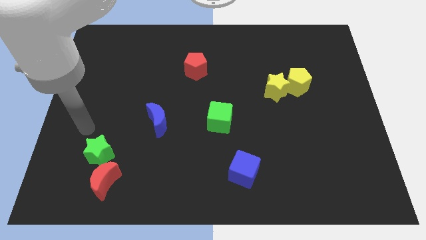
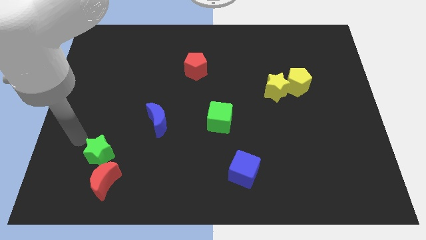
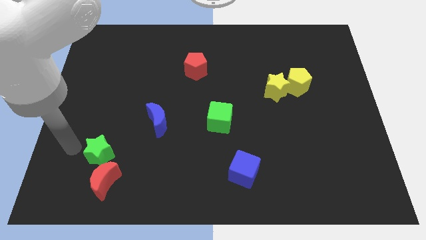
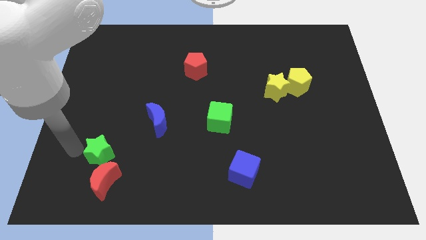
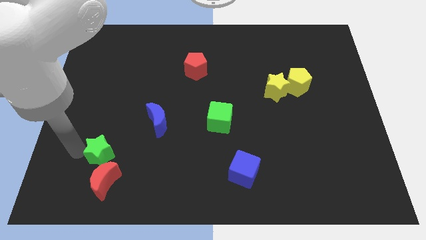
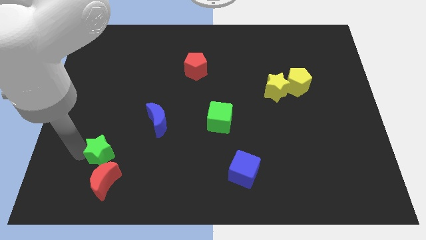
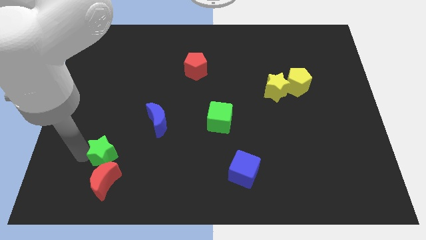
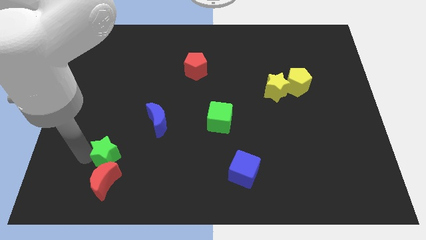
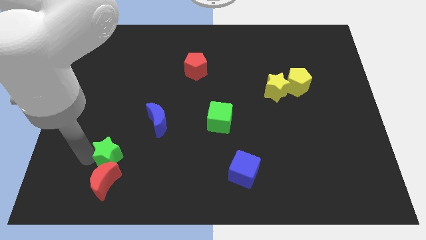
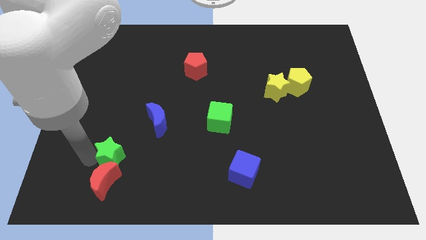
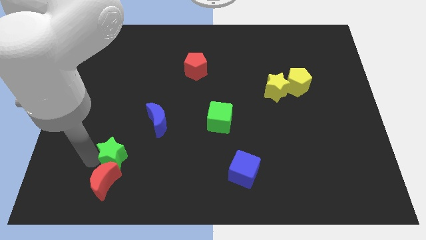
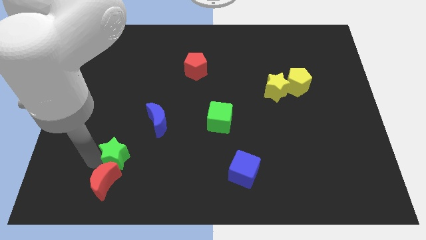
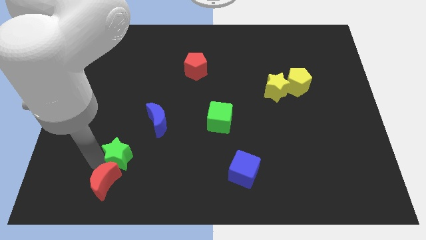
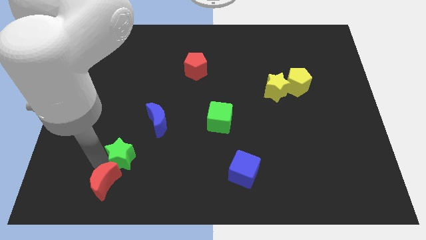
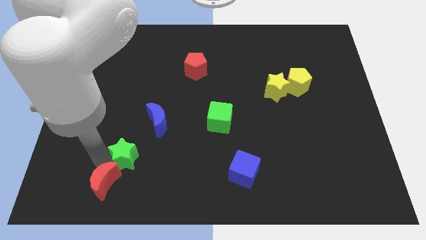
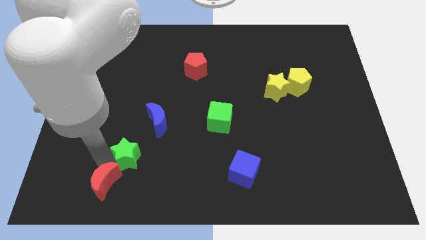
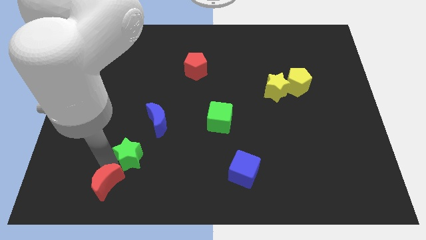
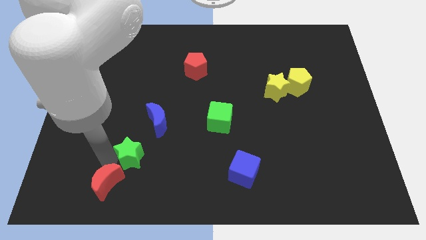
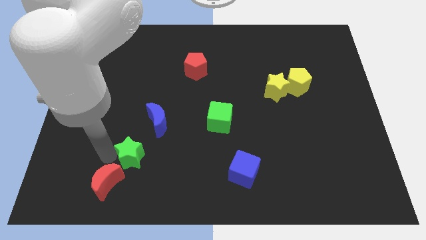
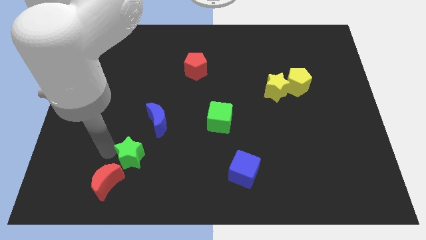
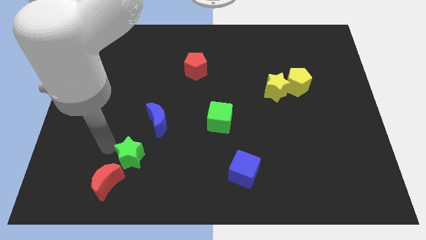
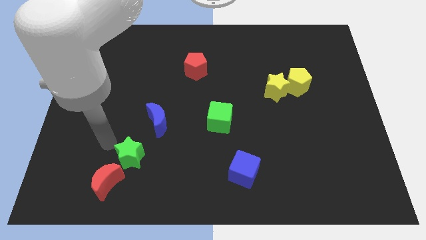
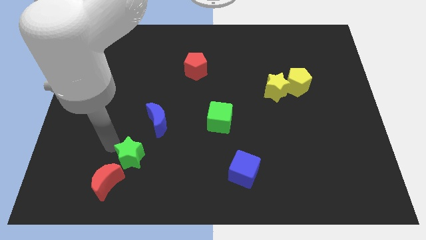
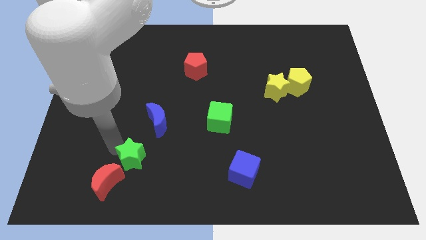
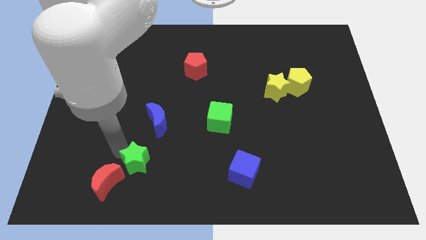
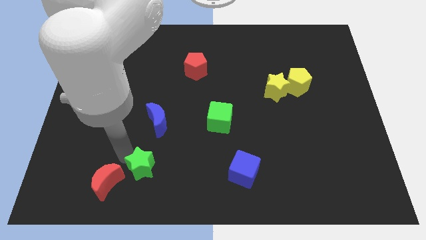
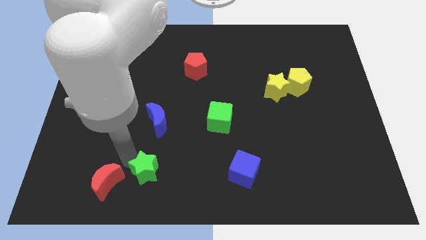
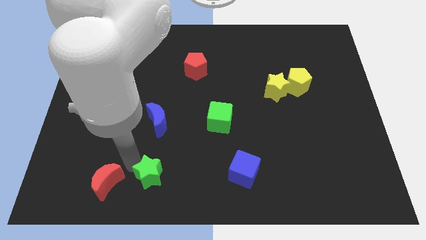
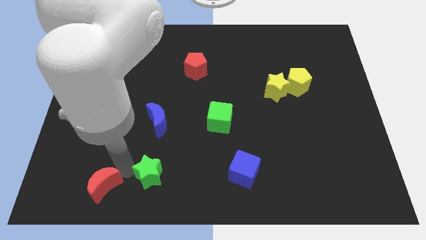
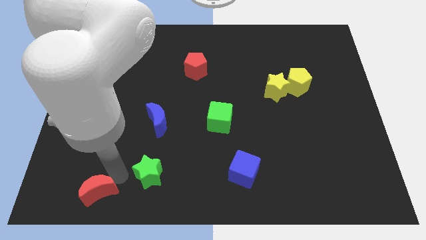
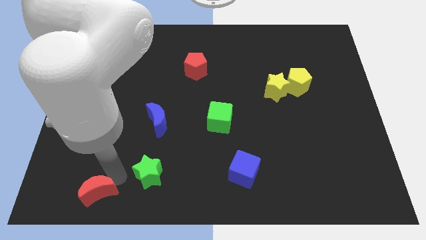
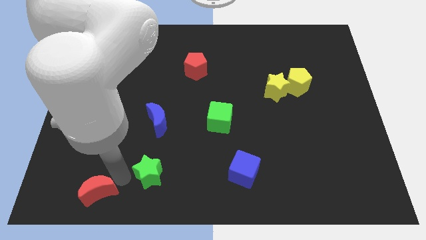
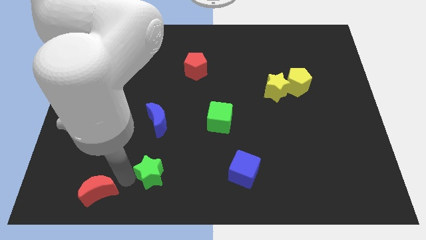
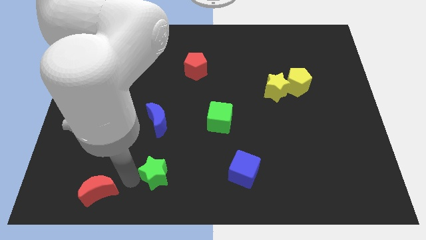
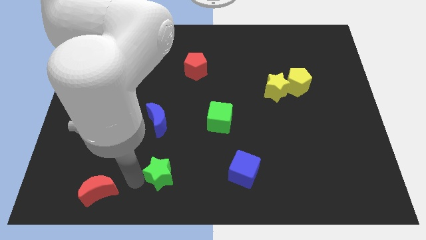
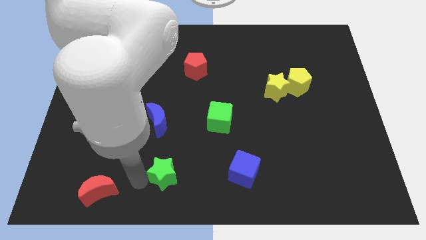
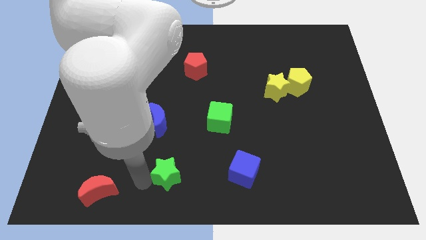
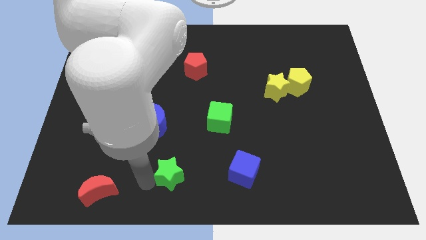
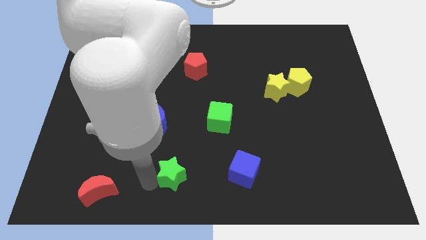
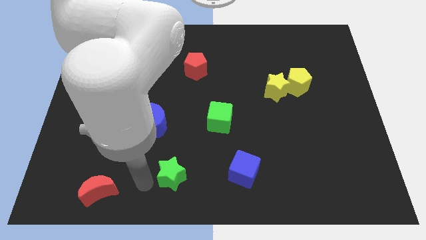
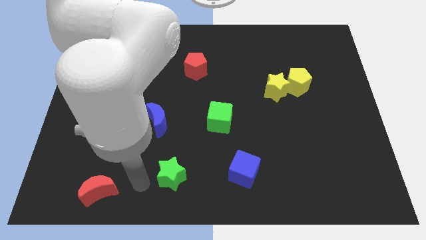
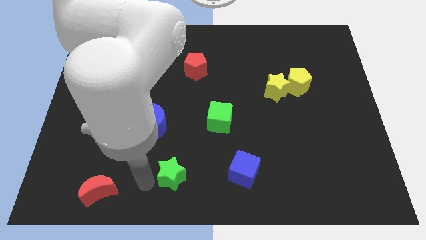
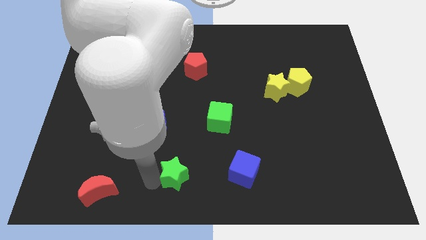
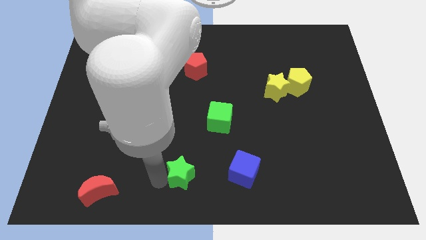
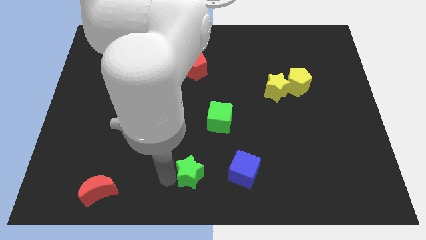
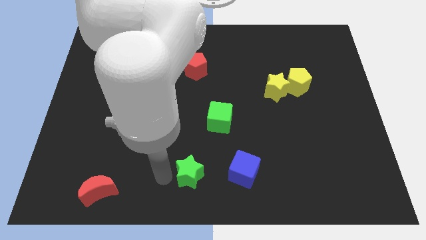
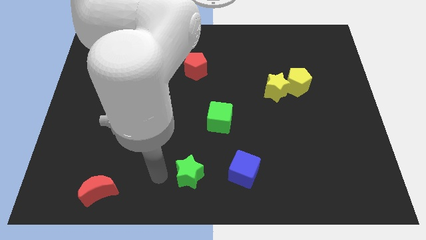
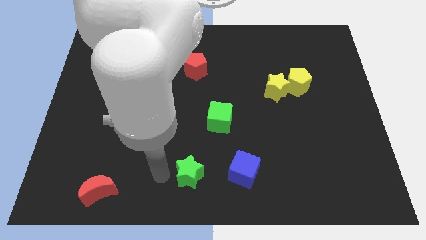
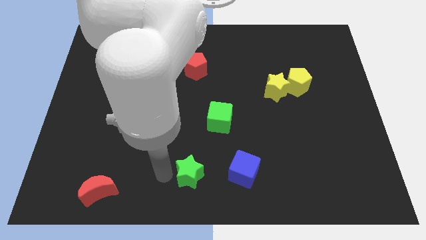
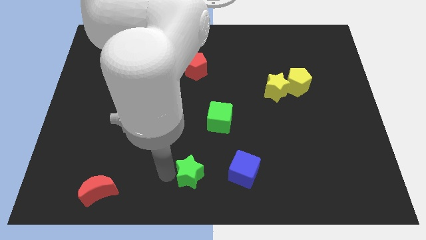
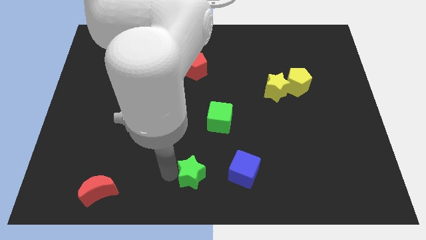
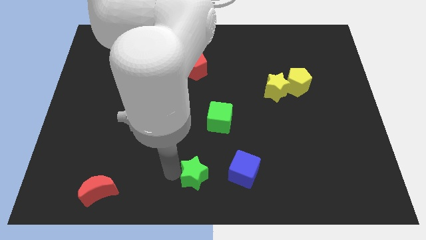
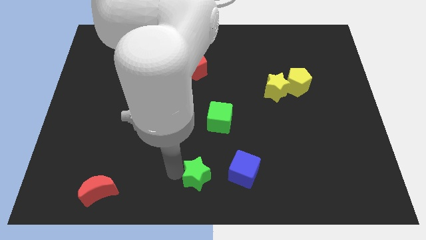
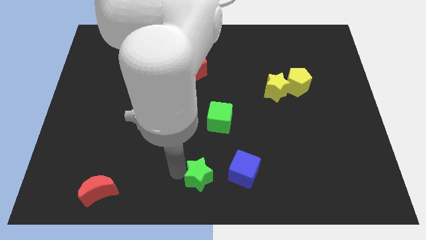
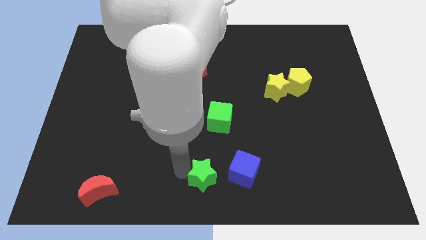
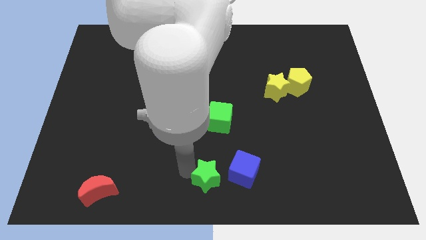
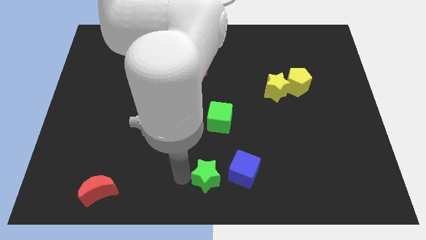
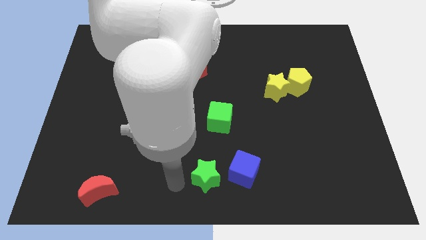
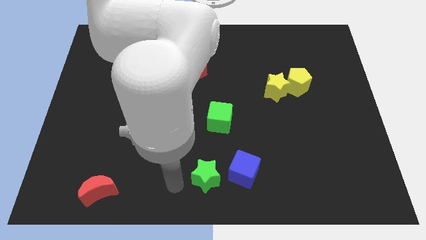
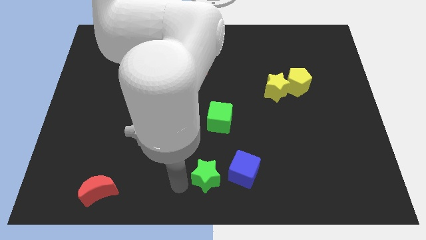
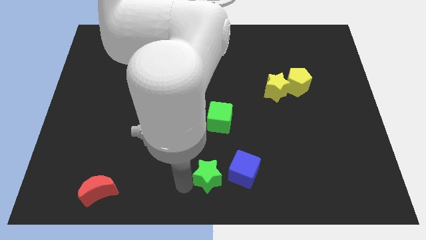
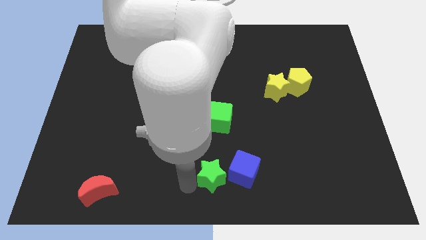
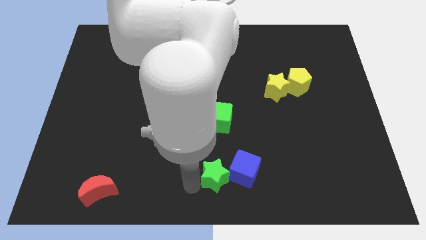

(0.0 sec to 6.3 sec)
slide the green star to the blue cube

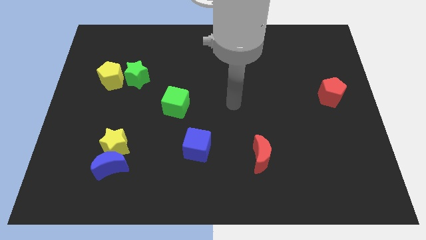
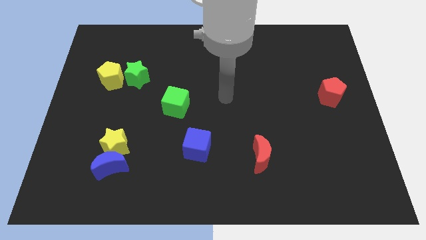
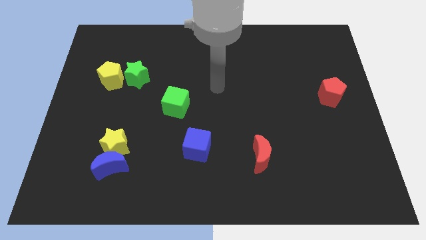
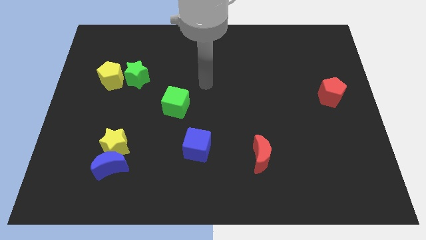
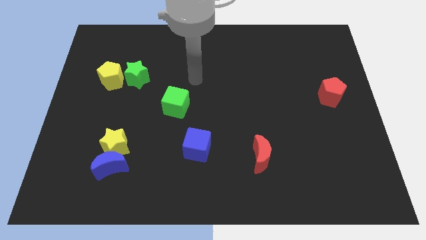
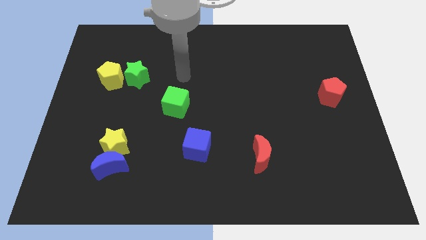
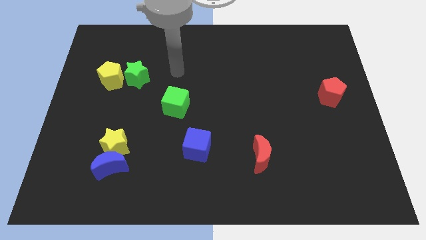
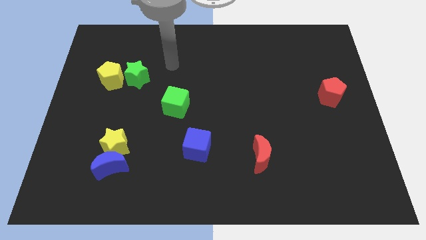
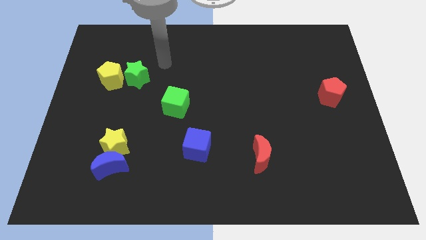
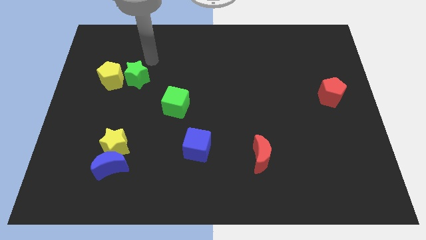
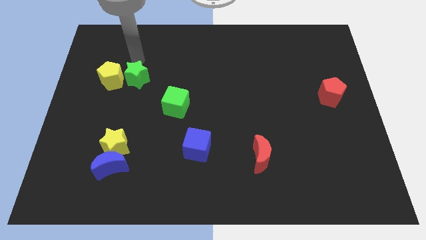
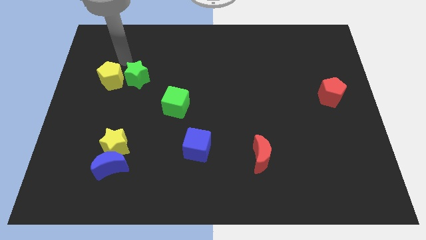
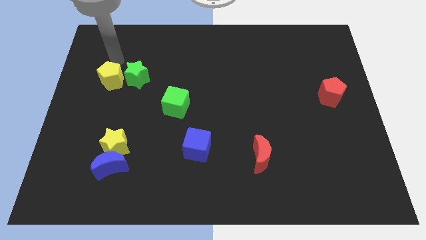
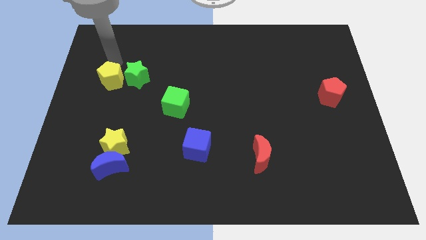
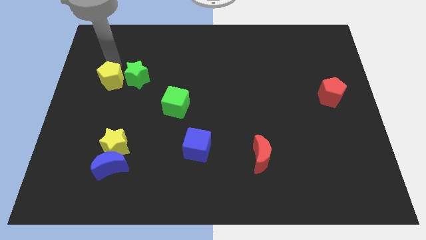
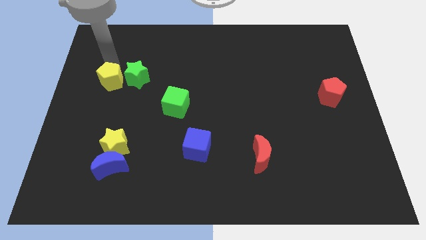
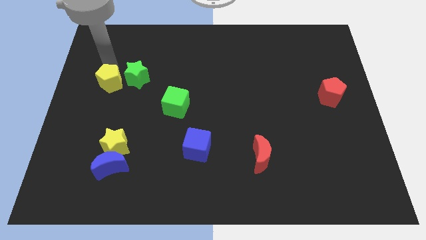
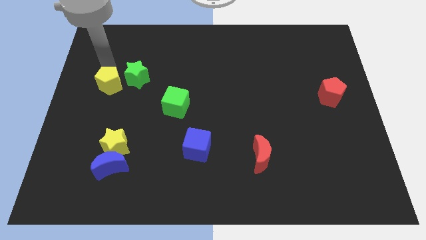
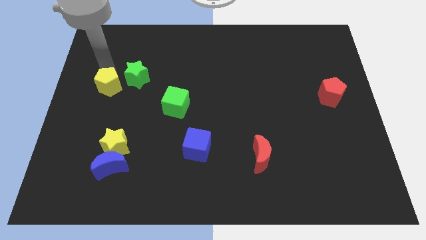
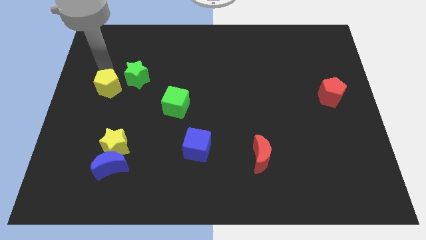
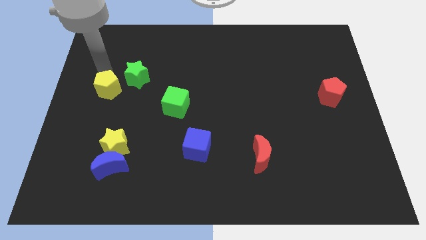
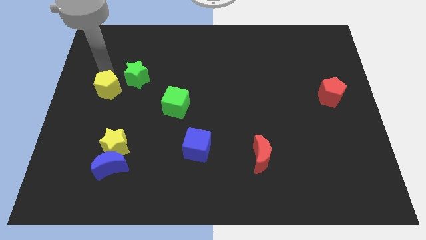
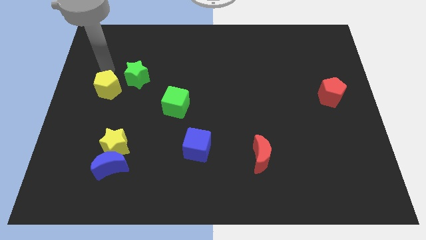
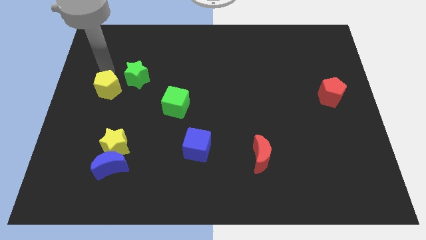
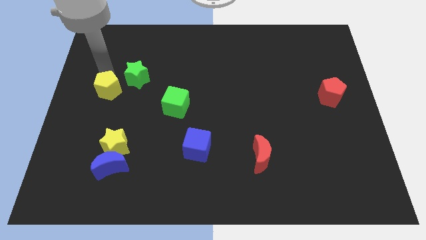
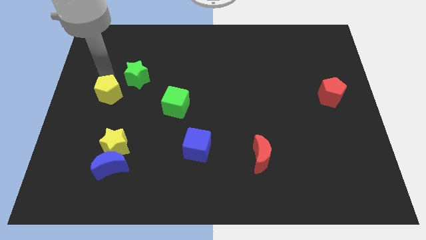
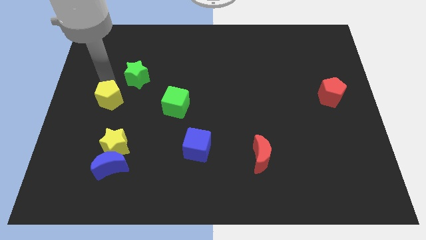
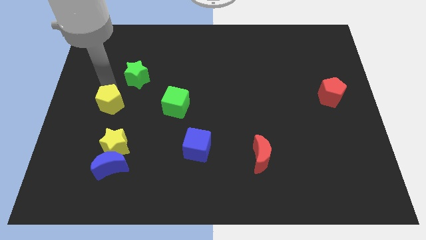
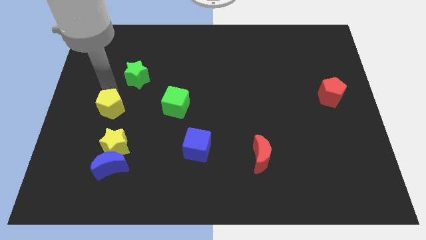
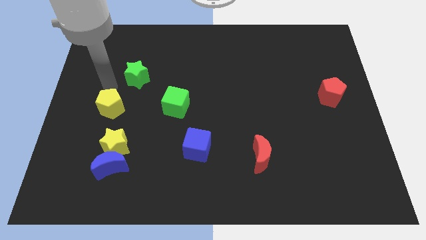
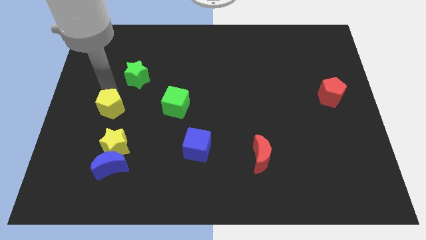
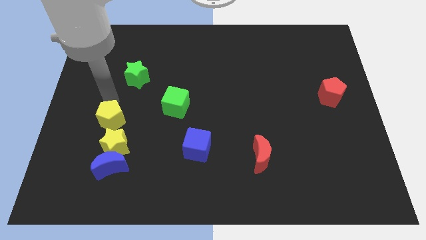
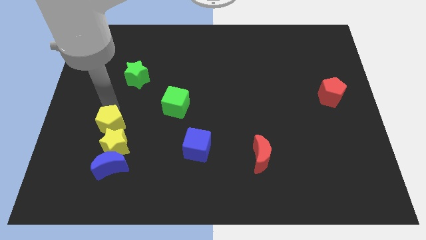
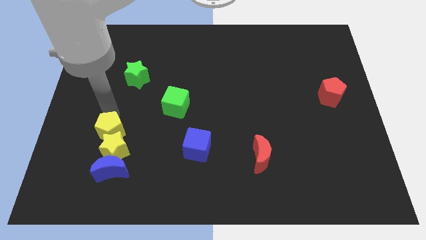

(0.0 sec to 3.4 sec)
put the yellow pentagon close to the yellow star
